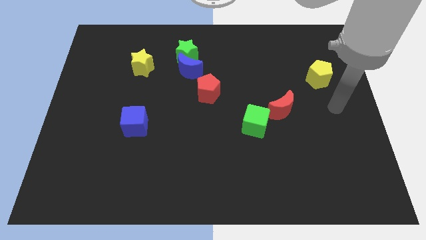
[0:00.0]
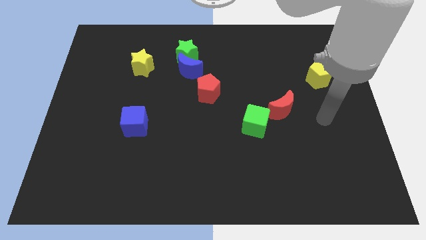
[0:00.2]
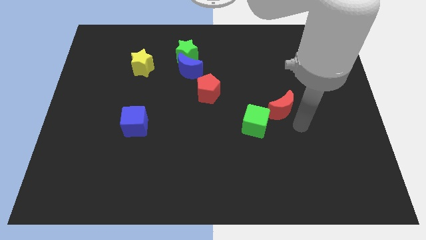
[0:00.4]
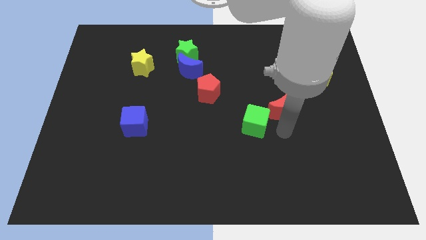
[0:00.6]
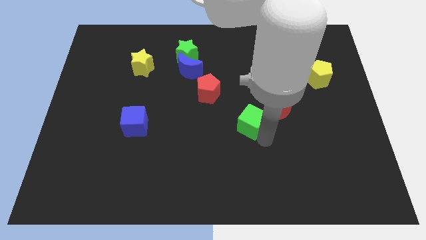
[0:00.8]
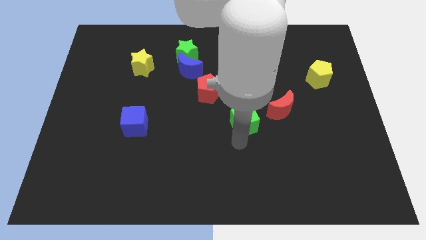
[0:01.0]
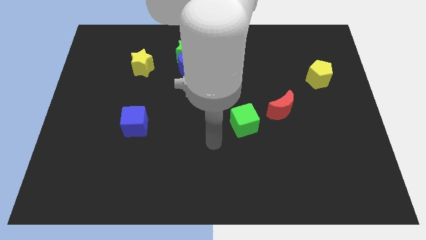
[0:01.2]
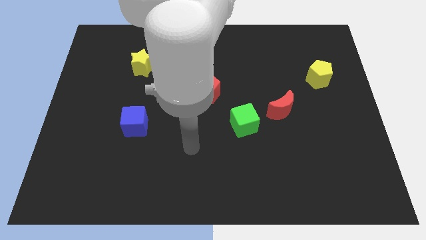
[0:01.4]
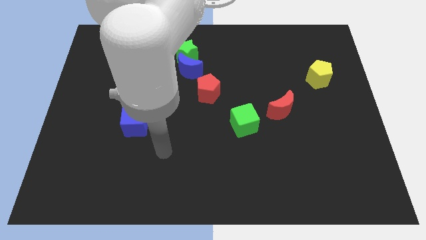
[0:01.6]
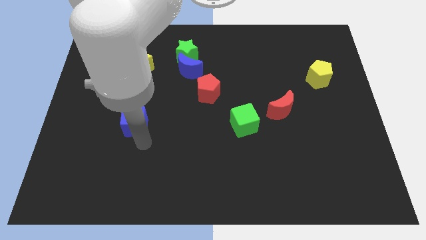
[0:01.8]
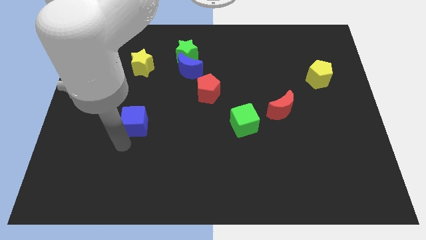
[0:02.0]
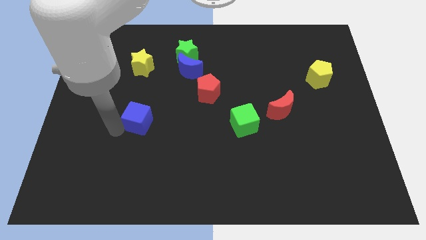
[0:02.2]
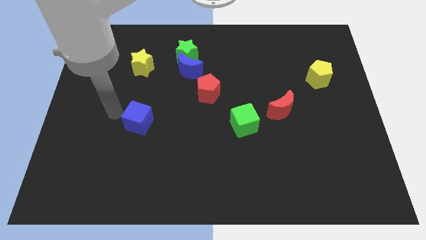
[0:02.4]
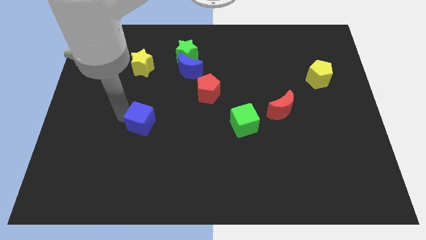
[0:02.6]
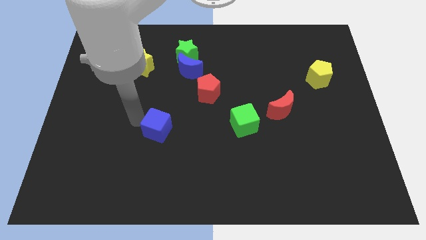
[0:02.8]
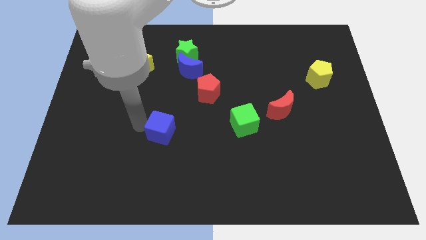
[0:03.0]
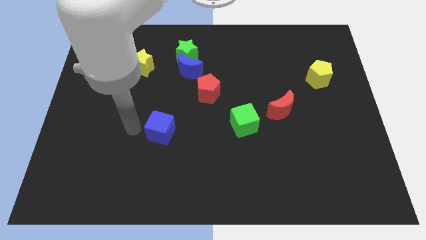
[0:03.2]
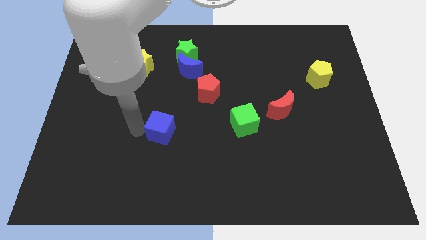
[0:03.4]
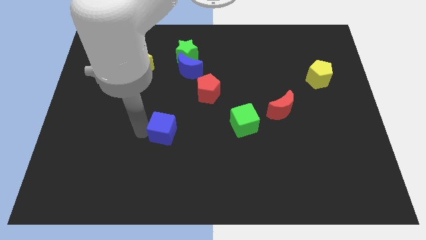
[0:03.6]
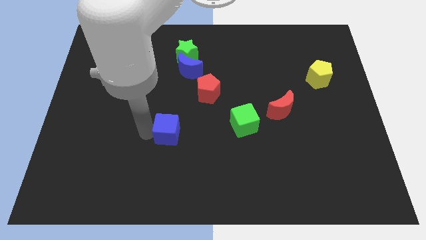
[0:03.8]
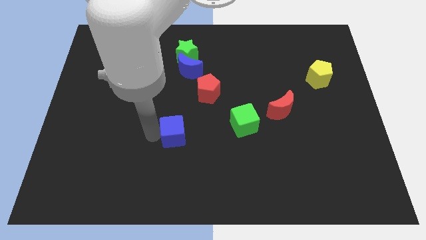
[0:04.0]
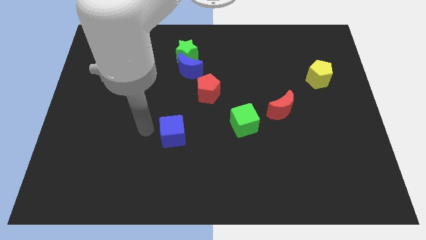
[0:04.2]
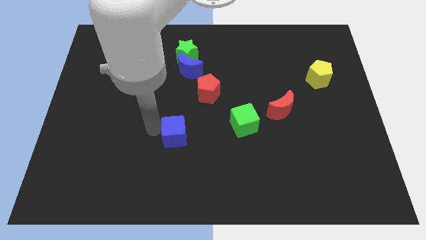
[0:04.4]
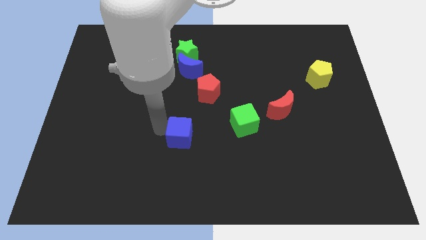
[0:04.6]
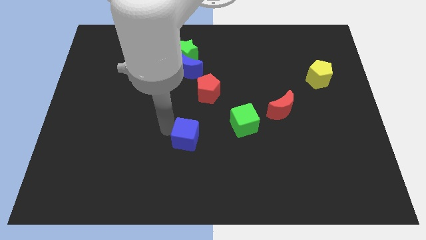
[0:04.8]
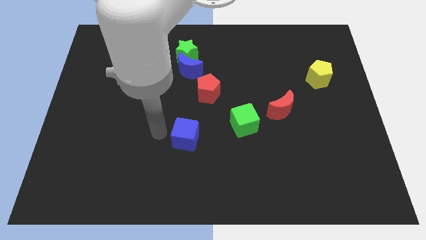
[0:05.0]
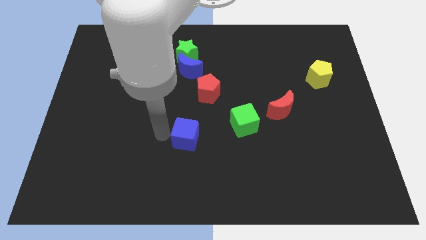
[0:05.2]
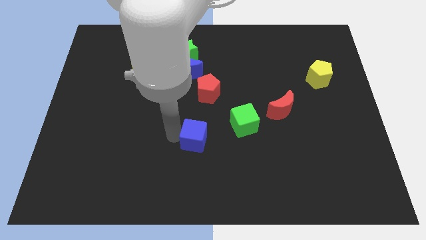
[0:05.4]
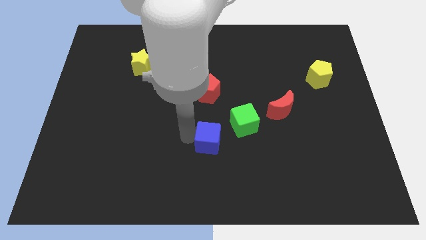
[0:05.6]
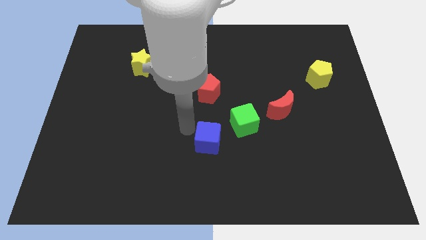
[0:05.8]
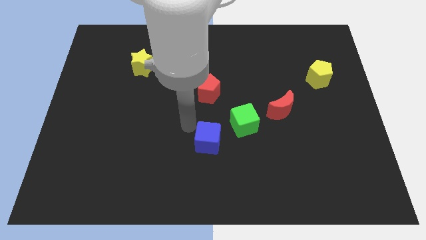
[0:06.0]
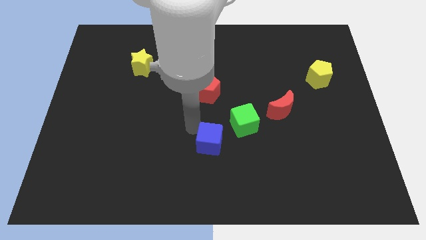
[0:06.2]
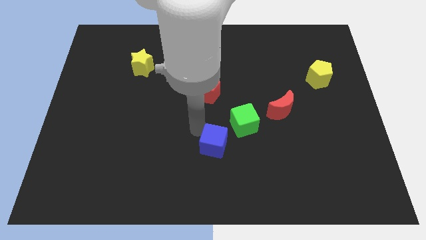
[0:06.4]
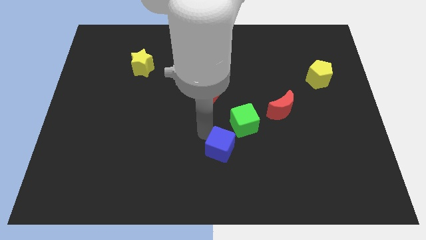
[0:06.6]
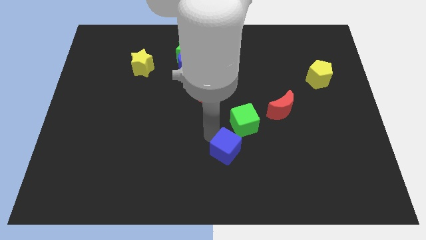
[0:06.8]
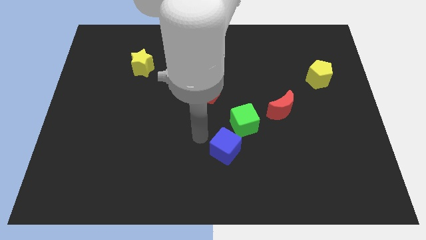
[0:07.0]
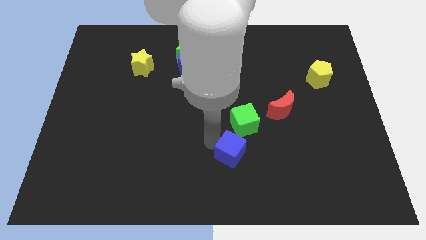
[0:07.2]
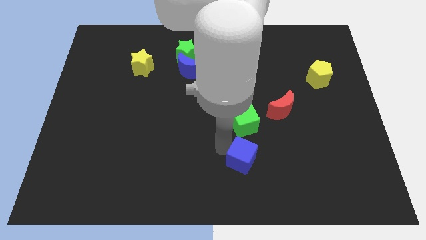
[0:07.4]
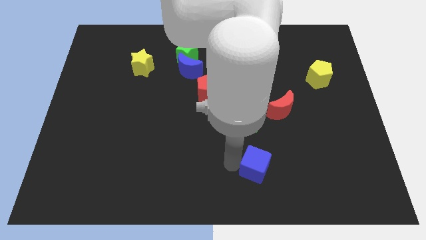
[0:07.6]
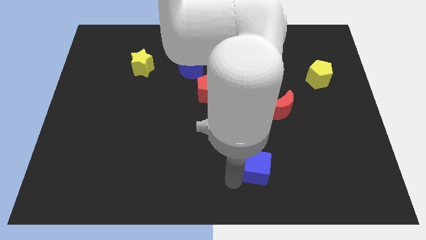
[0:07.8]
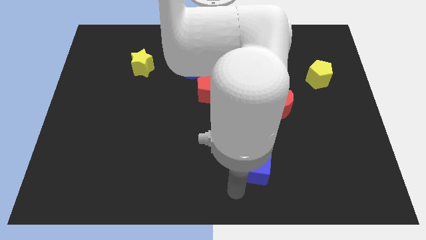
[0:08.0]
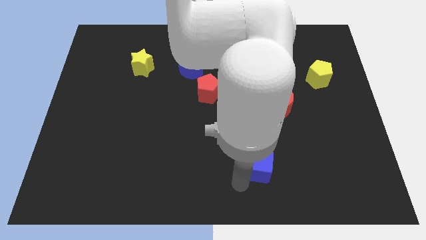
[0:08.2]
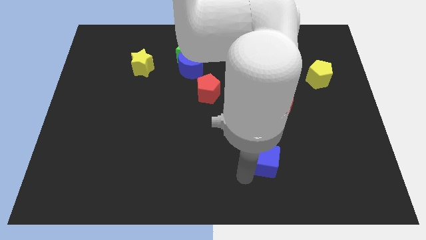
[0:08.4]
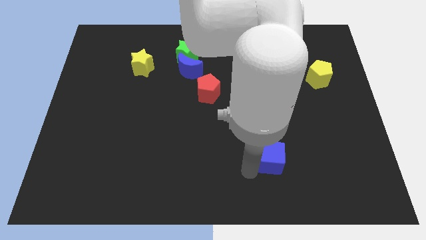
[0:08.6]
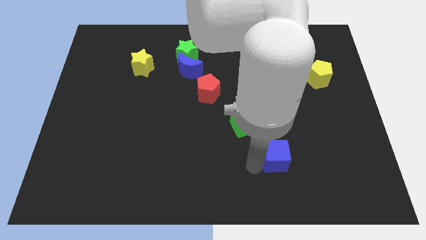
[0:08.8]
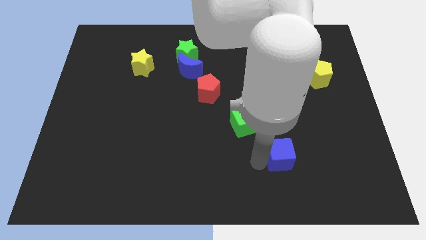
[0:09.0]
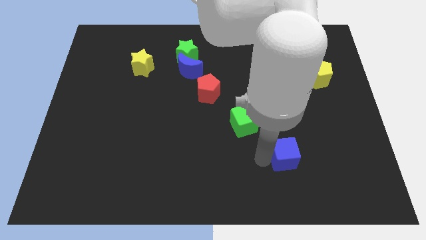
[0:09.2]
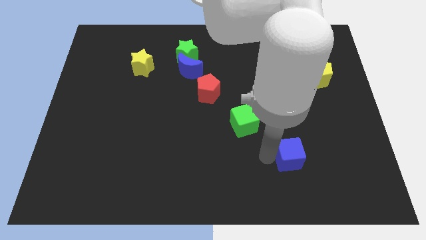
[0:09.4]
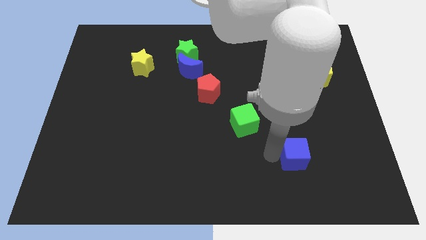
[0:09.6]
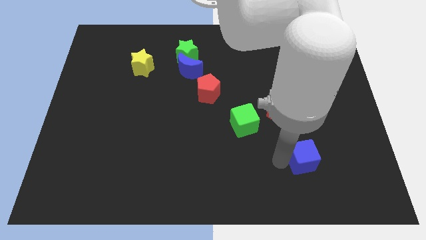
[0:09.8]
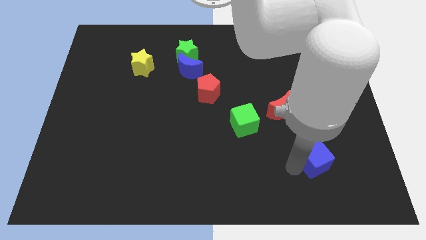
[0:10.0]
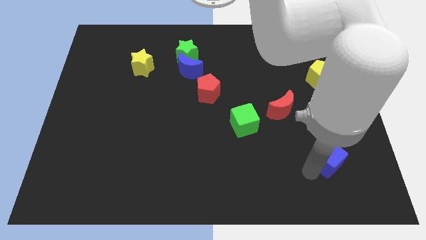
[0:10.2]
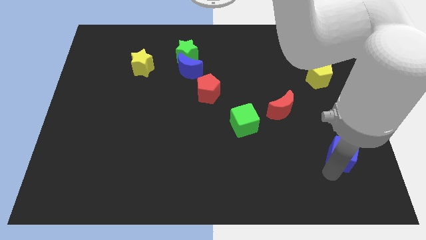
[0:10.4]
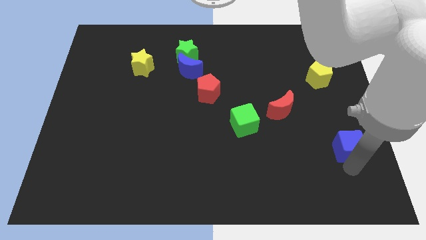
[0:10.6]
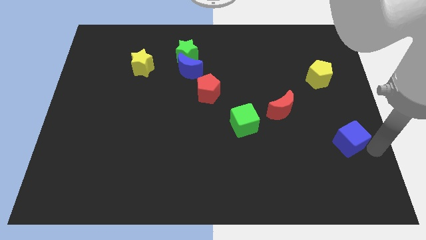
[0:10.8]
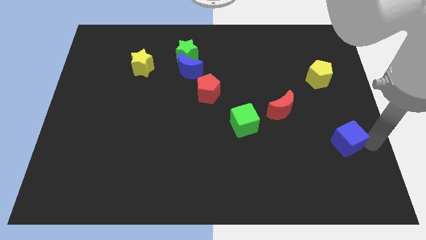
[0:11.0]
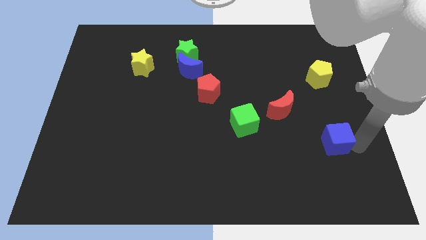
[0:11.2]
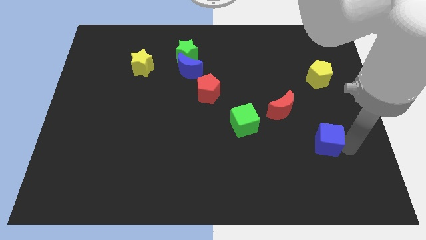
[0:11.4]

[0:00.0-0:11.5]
push the blue cube to the bottom right side of the red moon

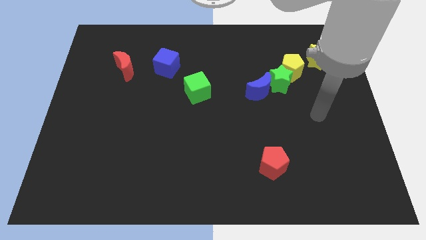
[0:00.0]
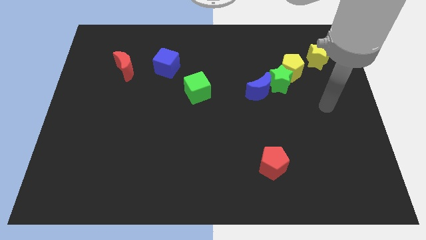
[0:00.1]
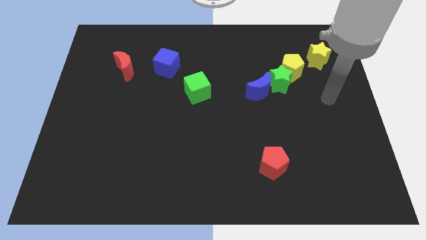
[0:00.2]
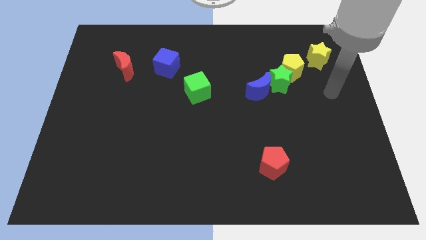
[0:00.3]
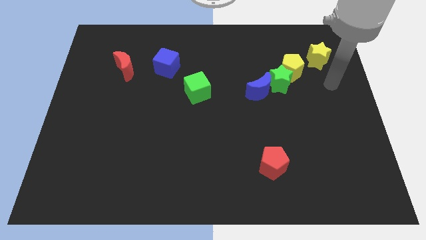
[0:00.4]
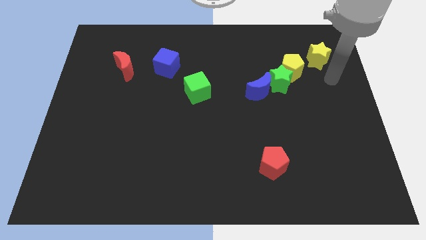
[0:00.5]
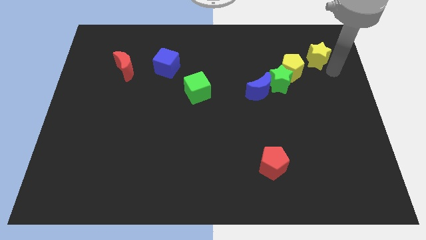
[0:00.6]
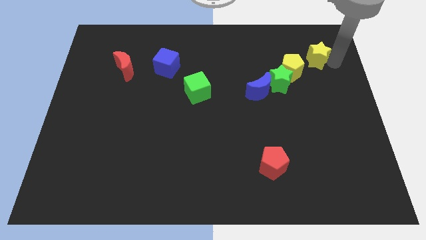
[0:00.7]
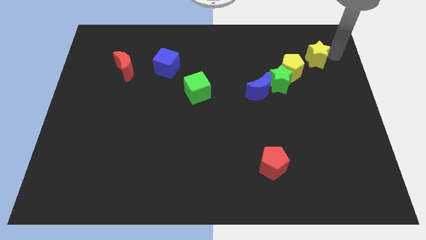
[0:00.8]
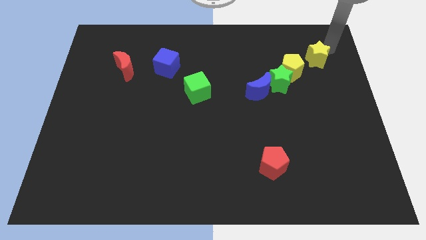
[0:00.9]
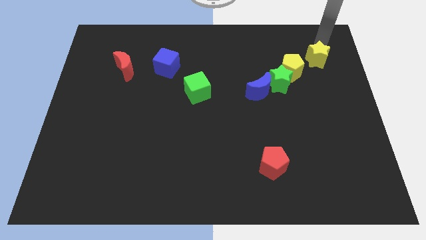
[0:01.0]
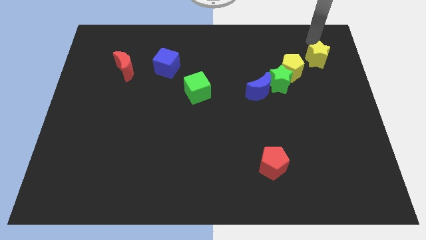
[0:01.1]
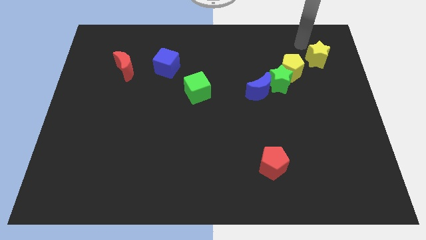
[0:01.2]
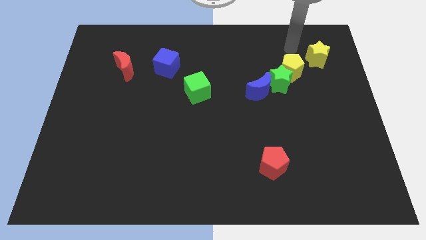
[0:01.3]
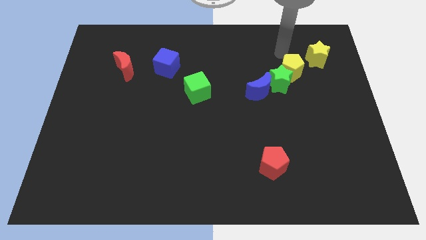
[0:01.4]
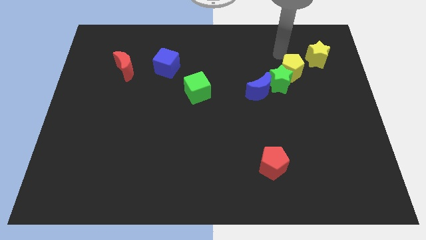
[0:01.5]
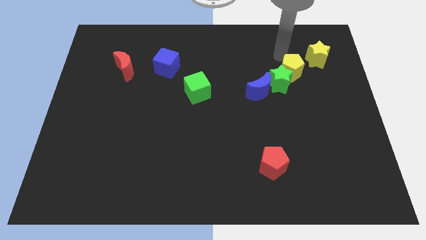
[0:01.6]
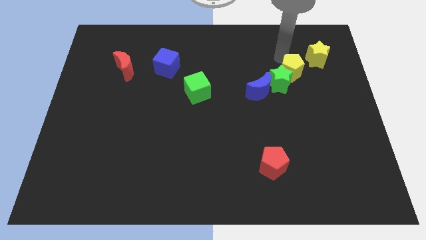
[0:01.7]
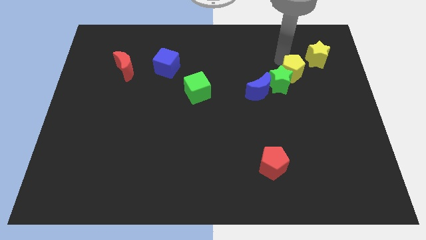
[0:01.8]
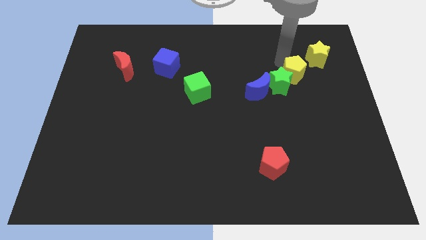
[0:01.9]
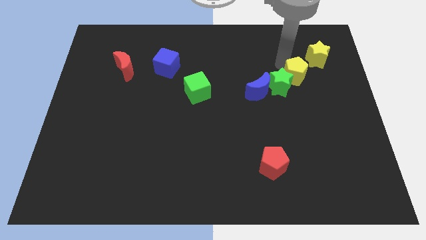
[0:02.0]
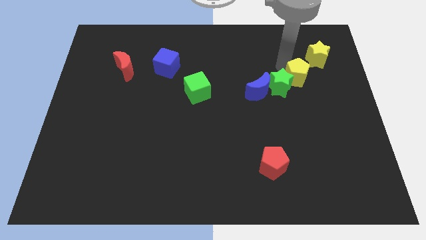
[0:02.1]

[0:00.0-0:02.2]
move the yellow pentagon just right of the blue moon
